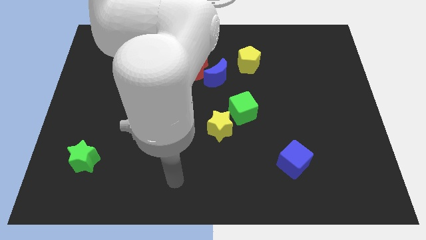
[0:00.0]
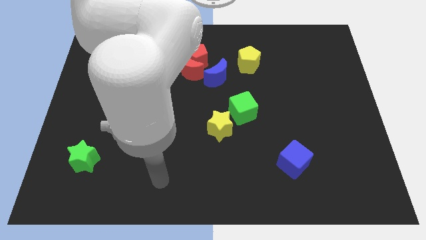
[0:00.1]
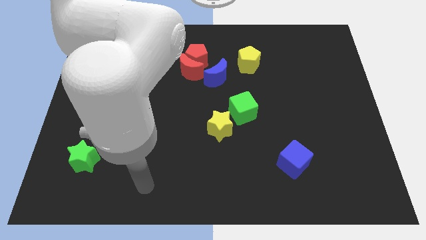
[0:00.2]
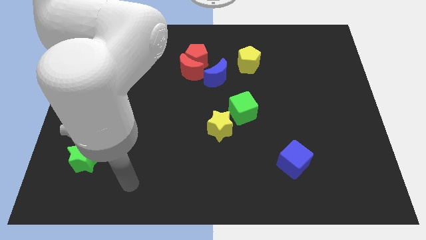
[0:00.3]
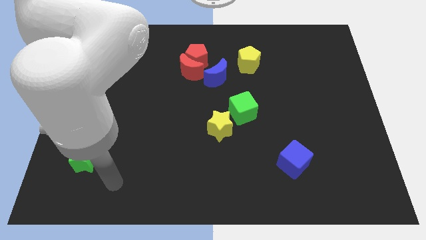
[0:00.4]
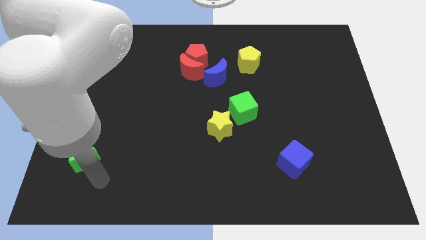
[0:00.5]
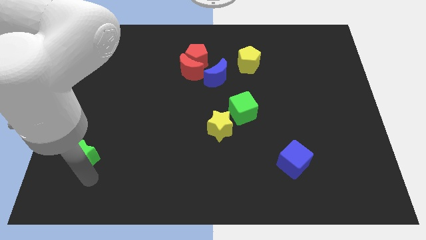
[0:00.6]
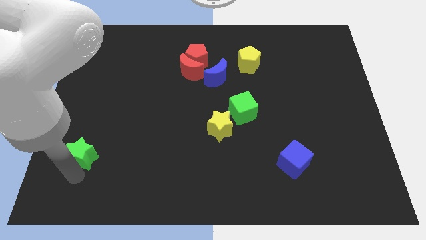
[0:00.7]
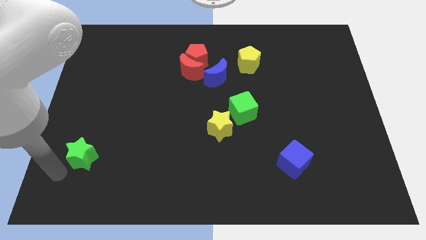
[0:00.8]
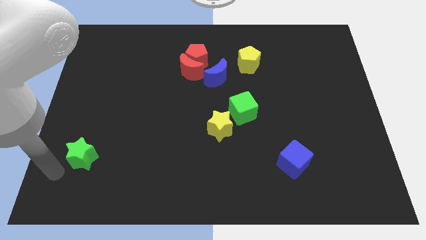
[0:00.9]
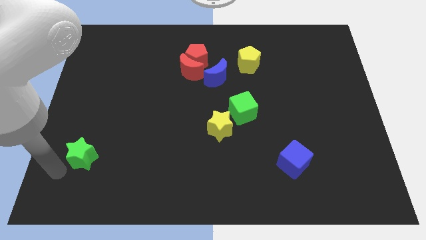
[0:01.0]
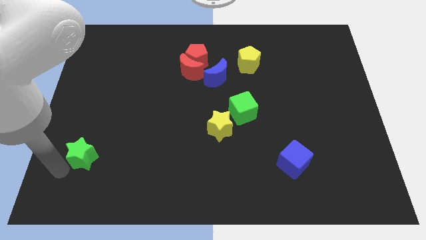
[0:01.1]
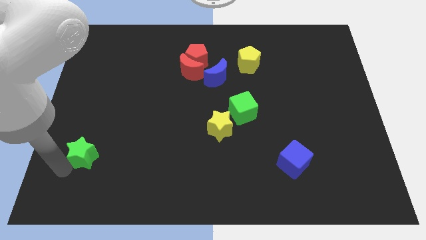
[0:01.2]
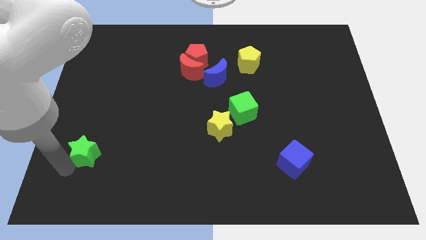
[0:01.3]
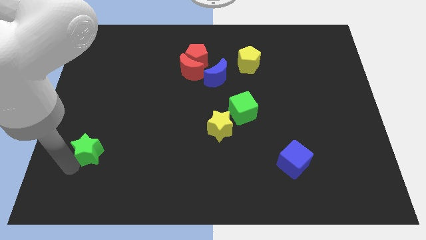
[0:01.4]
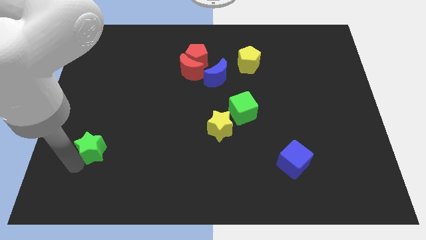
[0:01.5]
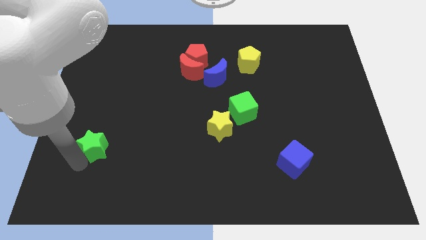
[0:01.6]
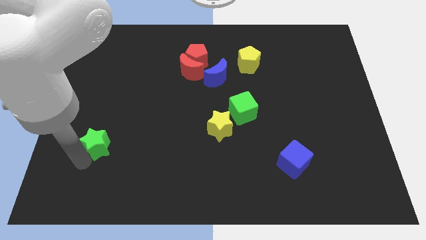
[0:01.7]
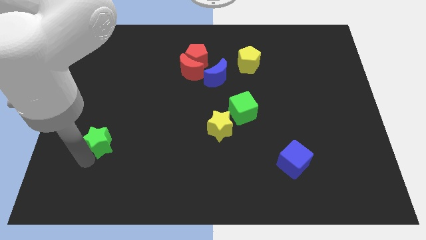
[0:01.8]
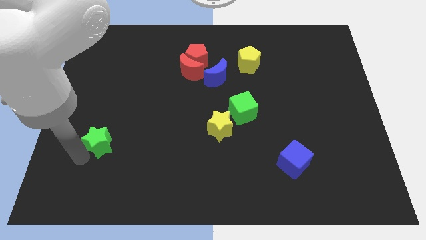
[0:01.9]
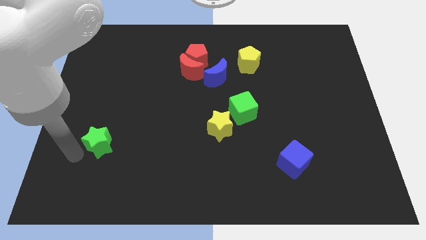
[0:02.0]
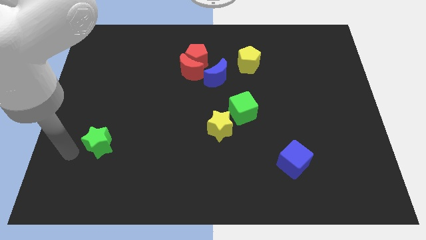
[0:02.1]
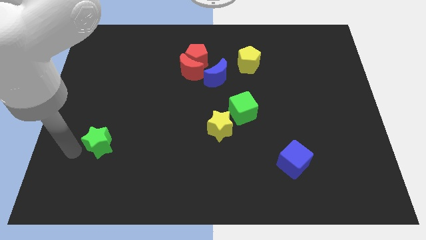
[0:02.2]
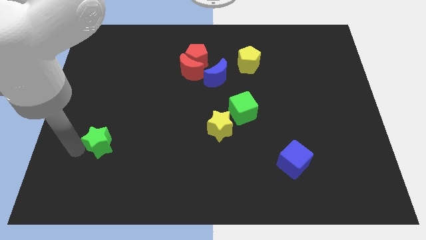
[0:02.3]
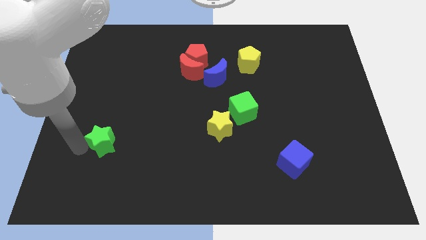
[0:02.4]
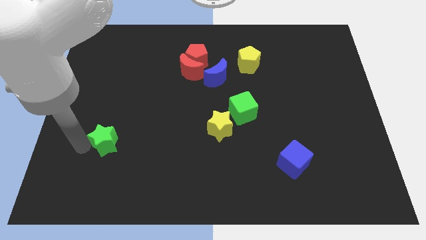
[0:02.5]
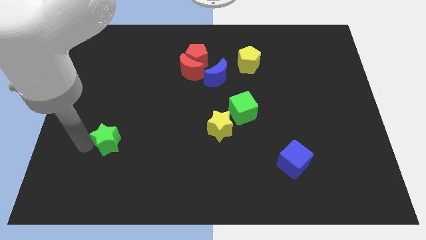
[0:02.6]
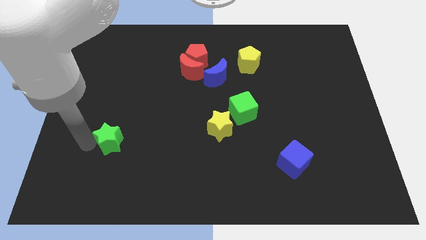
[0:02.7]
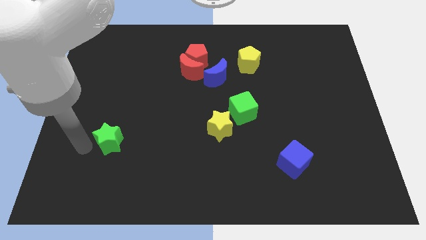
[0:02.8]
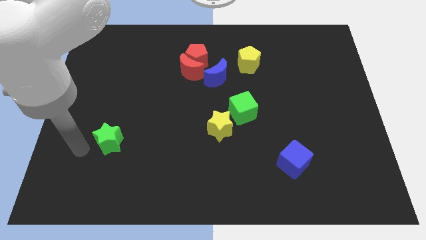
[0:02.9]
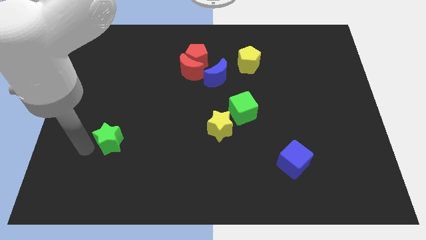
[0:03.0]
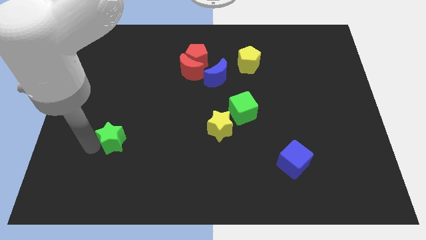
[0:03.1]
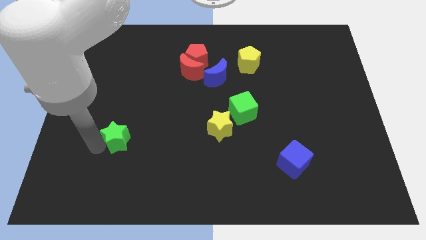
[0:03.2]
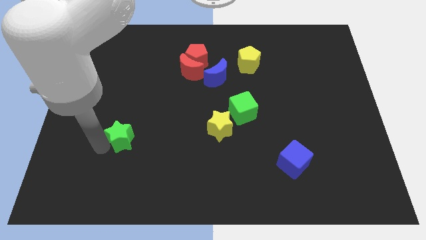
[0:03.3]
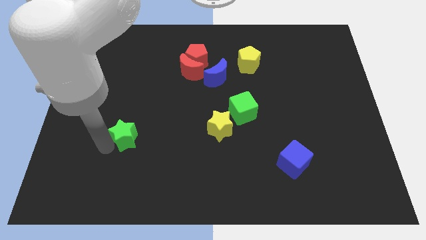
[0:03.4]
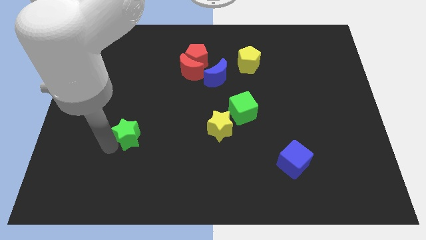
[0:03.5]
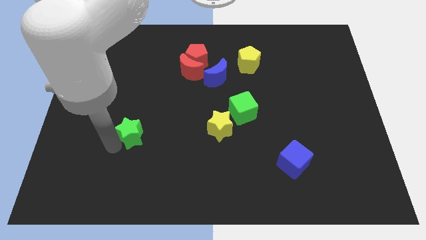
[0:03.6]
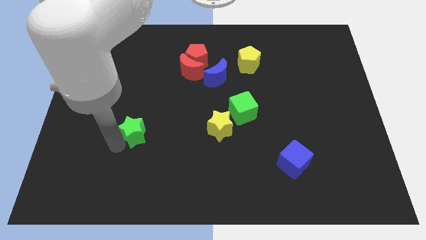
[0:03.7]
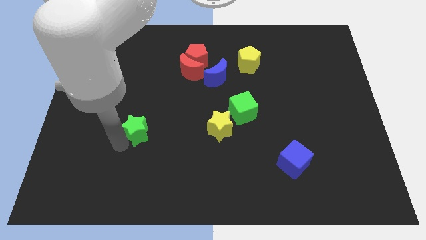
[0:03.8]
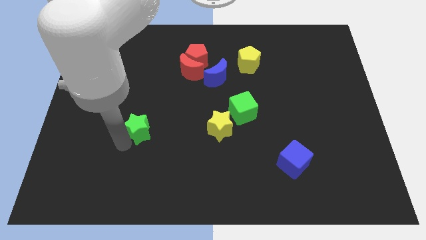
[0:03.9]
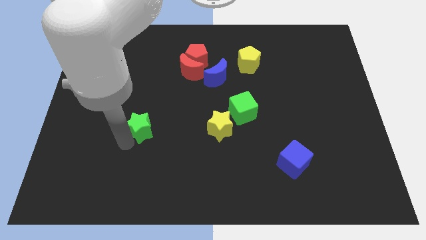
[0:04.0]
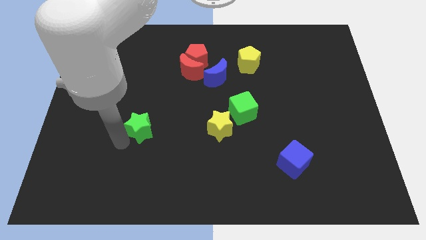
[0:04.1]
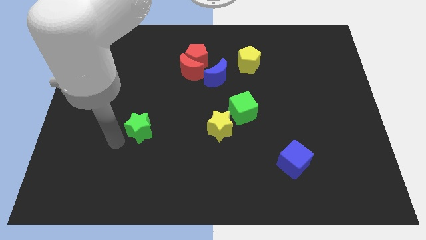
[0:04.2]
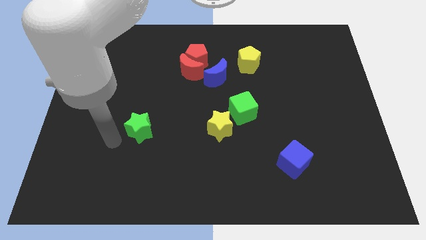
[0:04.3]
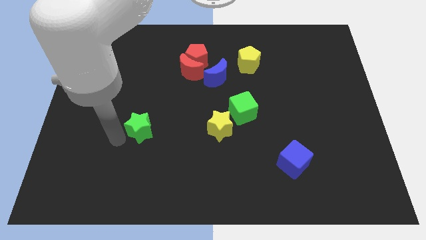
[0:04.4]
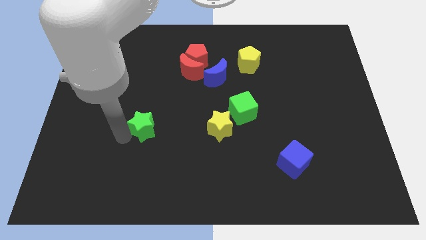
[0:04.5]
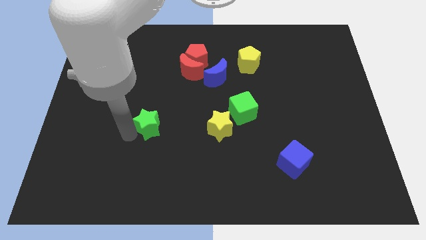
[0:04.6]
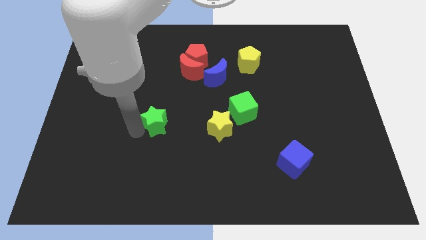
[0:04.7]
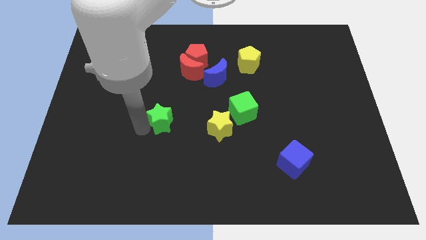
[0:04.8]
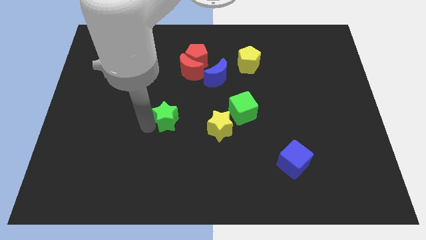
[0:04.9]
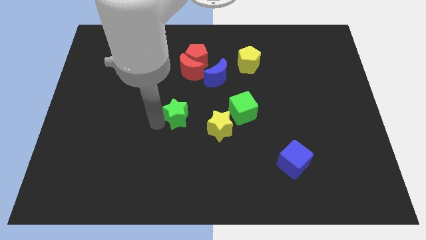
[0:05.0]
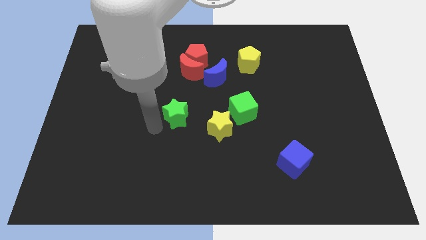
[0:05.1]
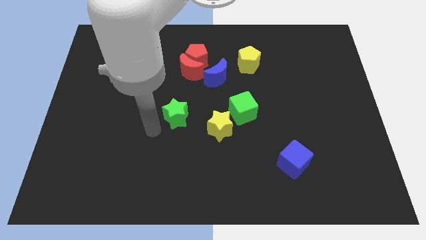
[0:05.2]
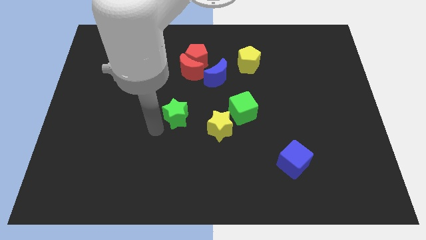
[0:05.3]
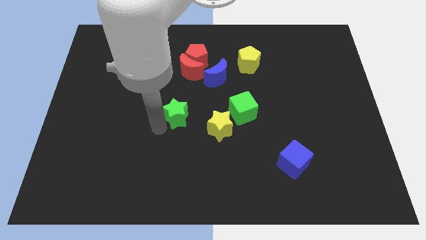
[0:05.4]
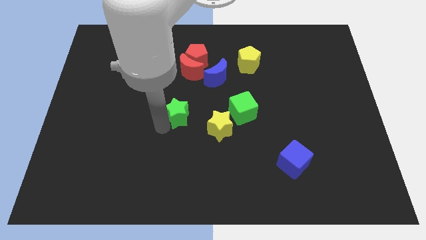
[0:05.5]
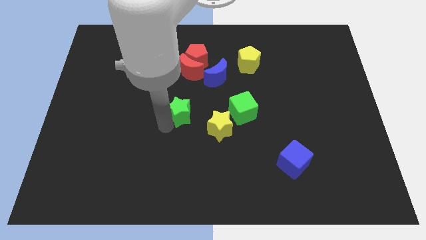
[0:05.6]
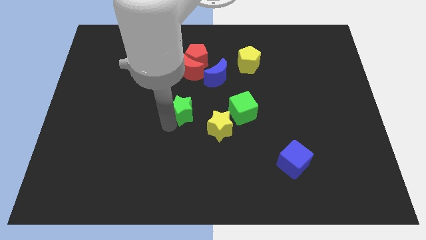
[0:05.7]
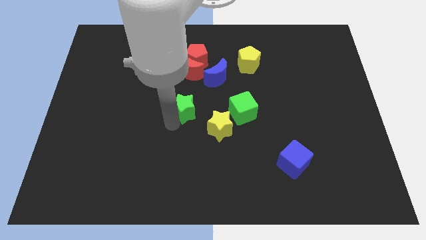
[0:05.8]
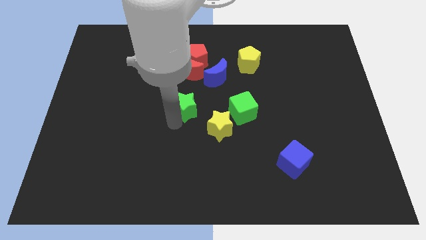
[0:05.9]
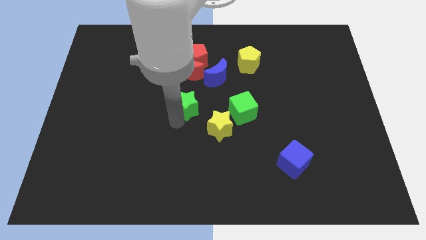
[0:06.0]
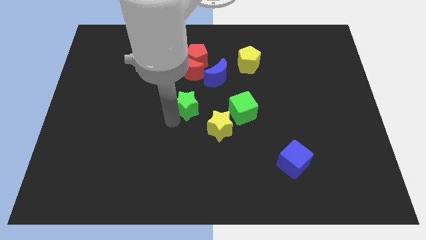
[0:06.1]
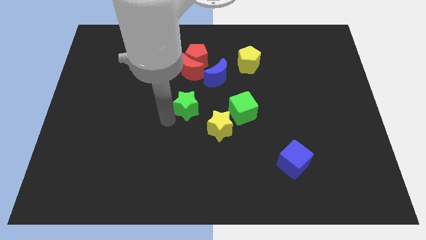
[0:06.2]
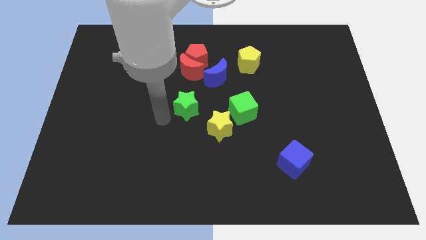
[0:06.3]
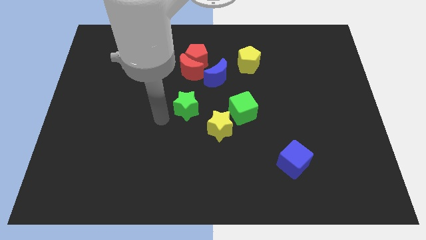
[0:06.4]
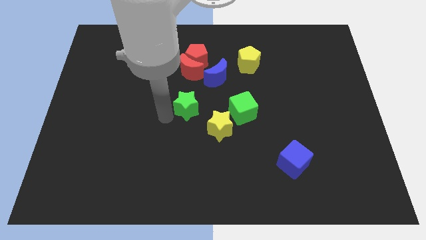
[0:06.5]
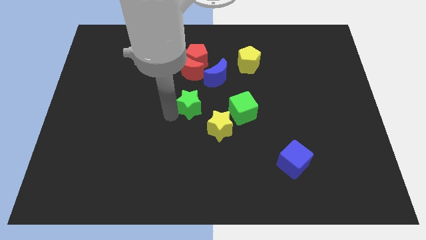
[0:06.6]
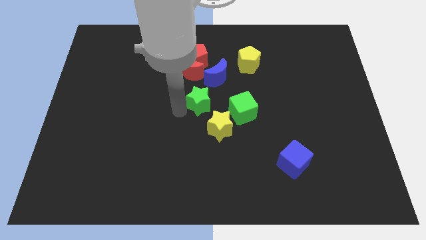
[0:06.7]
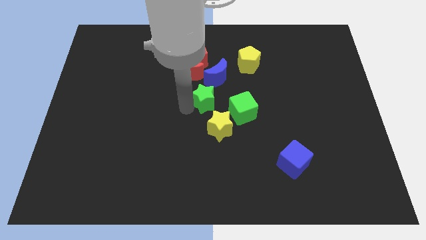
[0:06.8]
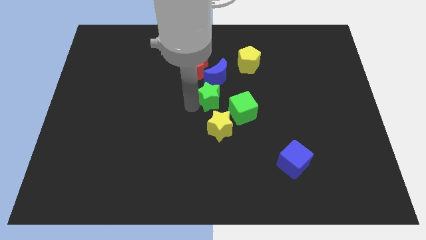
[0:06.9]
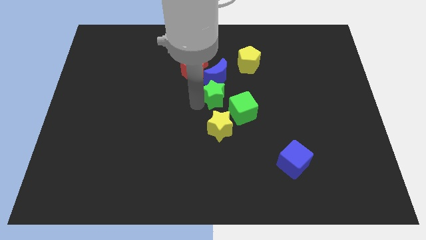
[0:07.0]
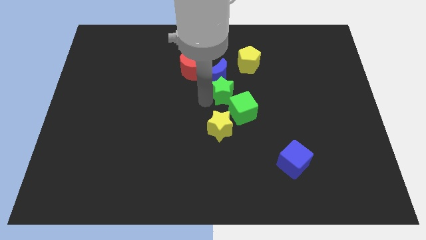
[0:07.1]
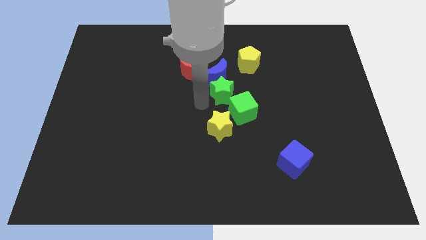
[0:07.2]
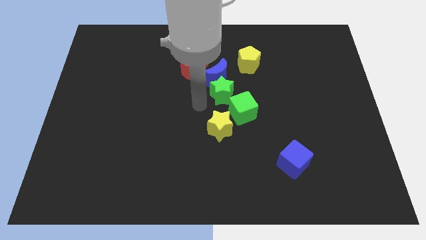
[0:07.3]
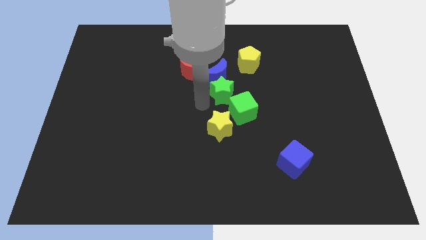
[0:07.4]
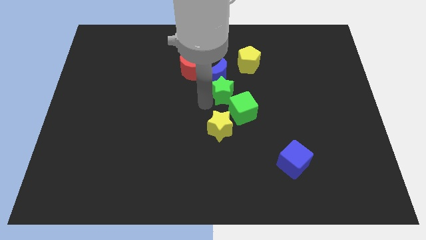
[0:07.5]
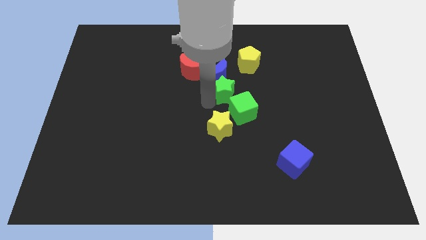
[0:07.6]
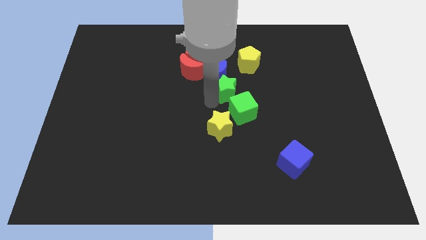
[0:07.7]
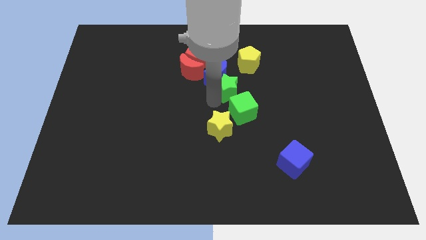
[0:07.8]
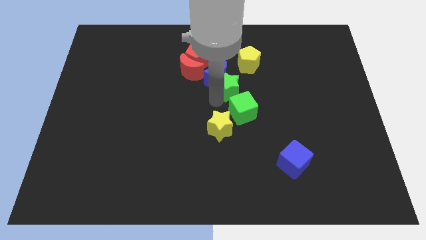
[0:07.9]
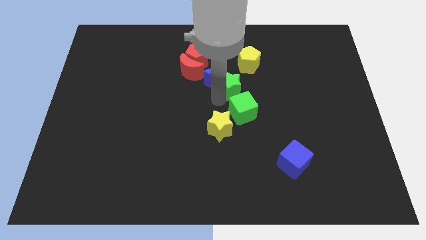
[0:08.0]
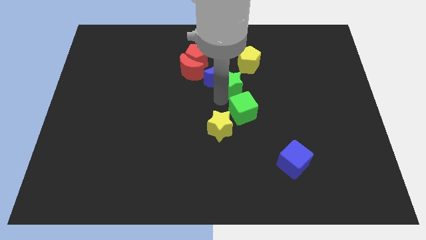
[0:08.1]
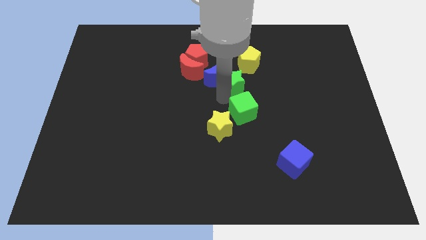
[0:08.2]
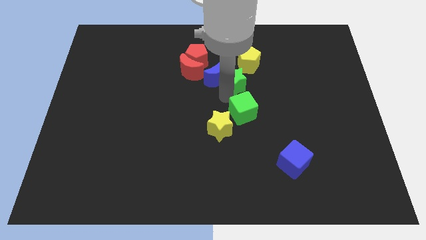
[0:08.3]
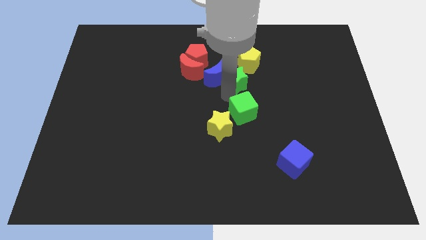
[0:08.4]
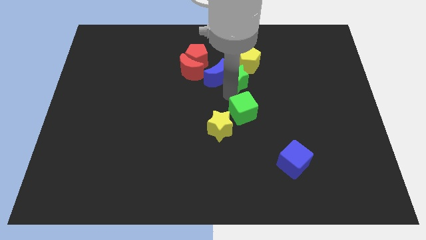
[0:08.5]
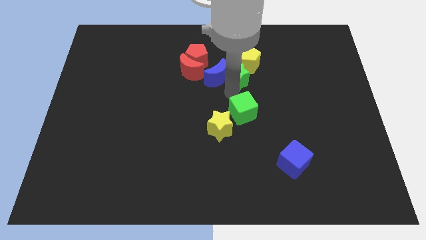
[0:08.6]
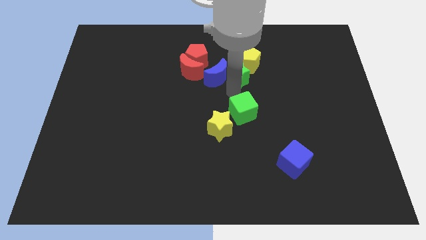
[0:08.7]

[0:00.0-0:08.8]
push the green star close to the yellow pentagon
